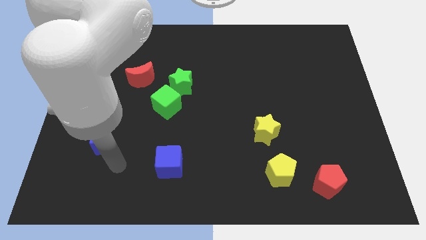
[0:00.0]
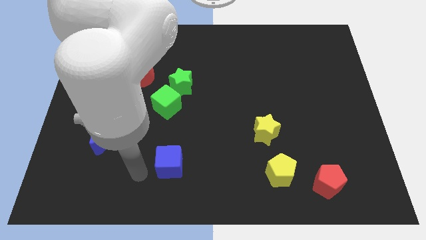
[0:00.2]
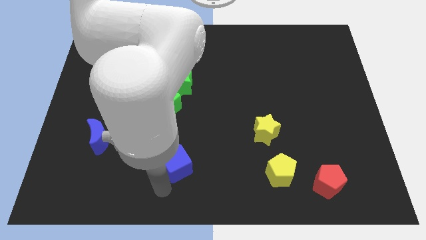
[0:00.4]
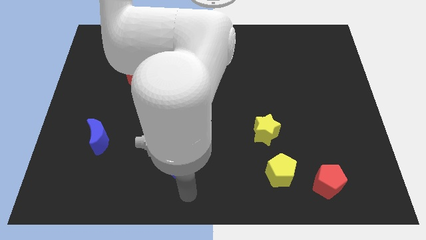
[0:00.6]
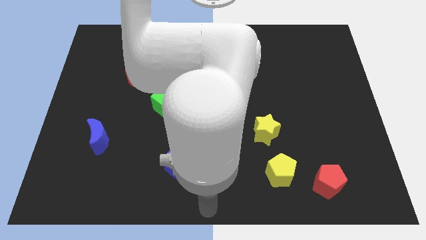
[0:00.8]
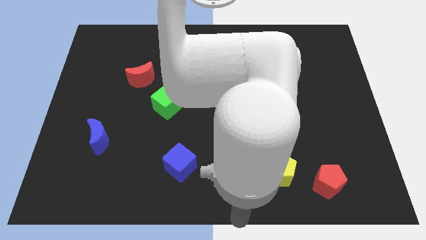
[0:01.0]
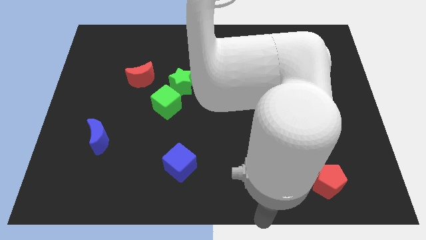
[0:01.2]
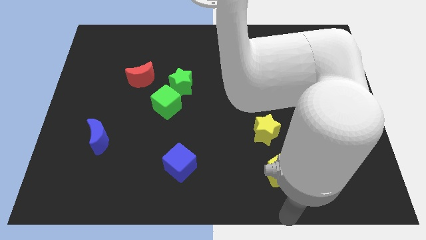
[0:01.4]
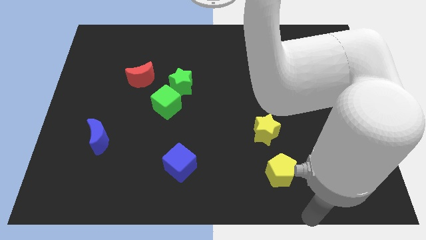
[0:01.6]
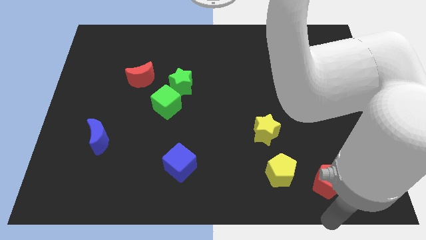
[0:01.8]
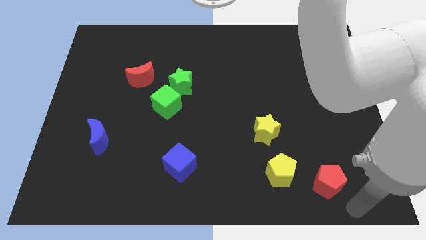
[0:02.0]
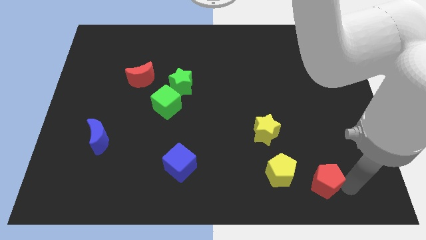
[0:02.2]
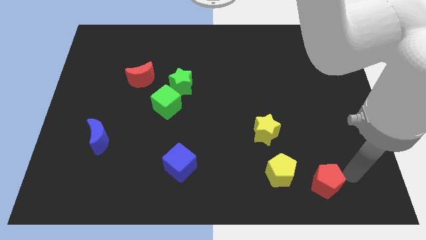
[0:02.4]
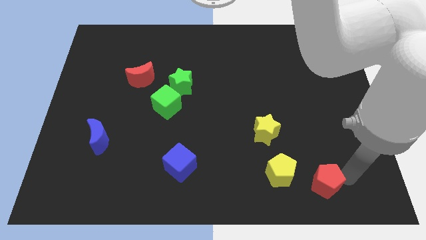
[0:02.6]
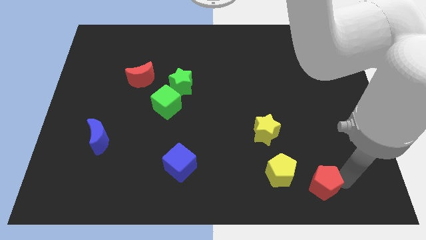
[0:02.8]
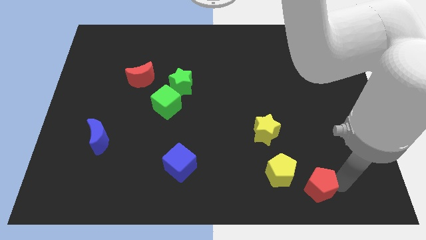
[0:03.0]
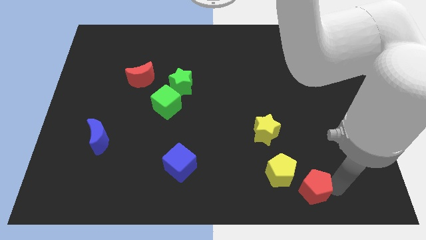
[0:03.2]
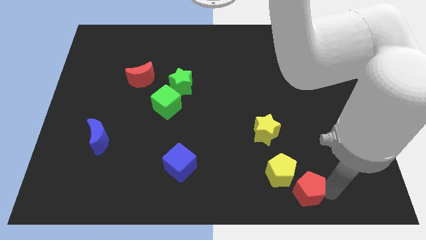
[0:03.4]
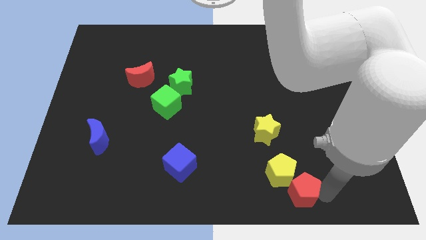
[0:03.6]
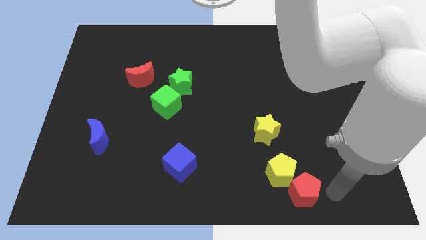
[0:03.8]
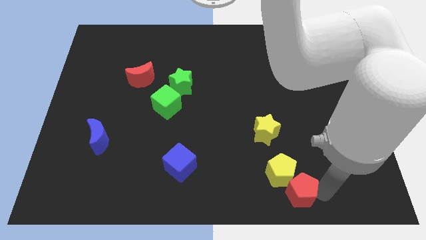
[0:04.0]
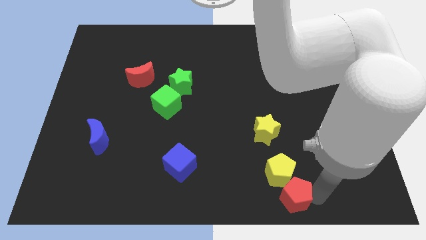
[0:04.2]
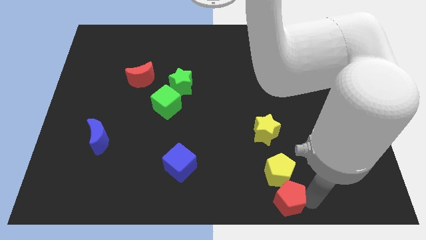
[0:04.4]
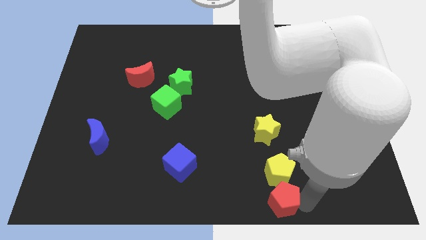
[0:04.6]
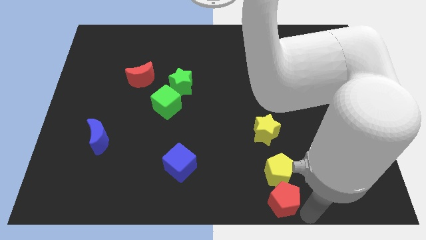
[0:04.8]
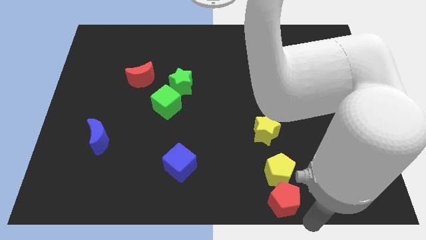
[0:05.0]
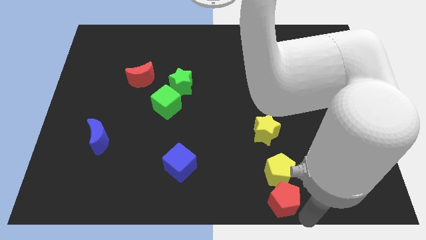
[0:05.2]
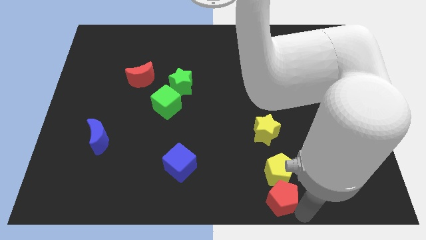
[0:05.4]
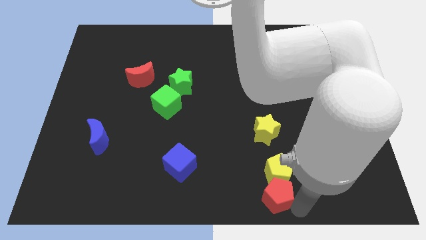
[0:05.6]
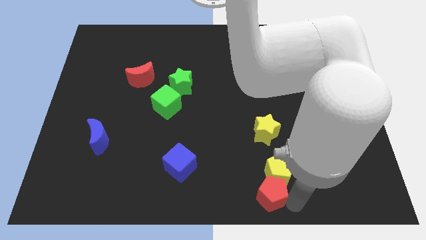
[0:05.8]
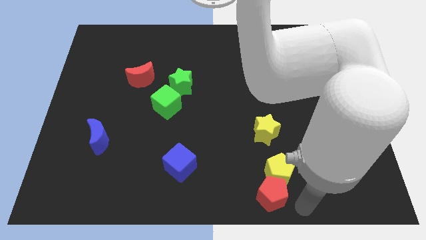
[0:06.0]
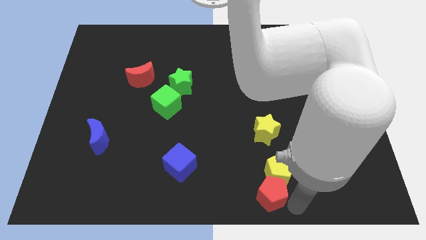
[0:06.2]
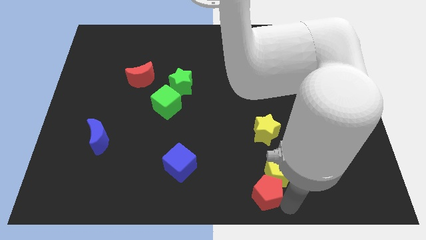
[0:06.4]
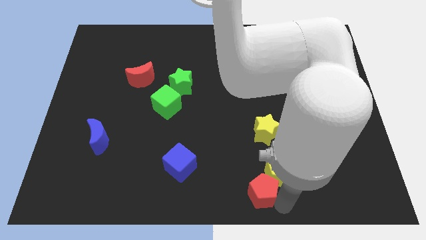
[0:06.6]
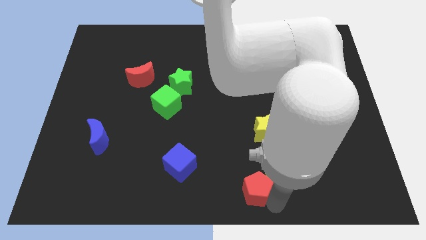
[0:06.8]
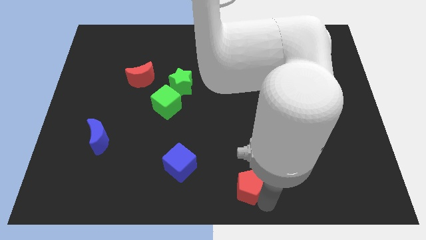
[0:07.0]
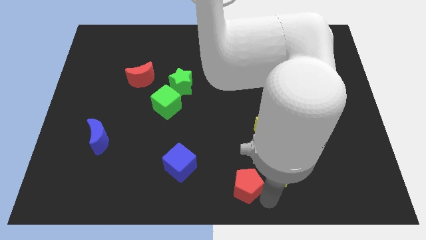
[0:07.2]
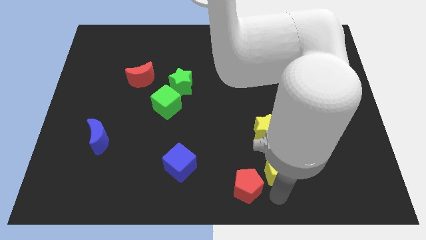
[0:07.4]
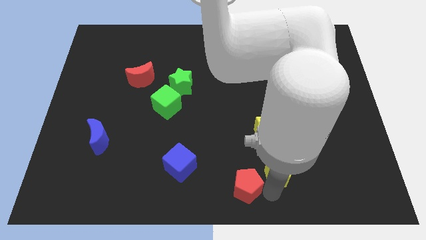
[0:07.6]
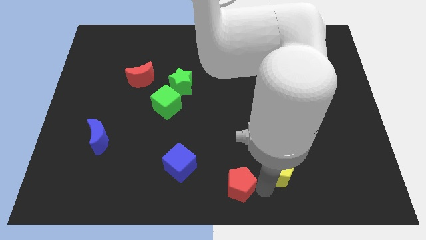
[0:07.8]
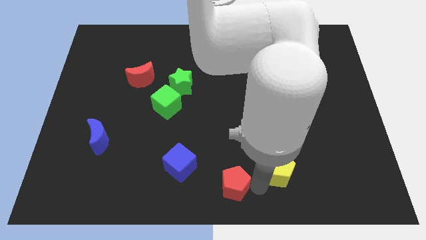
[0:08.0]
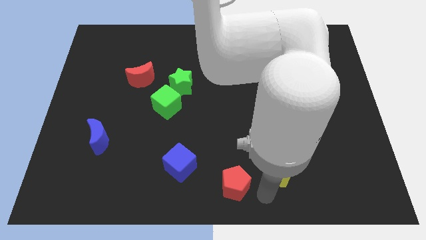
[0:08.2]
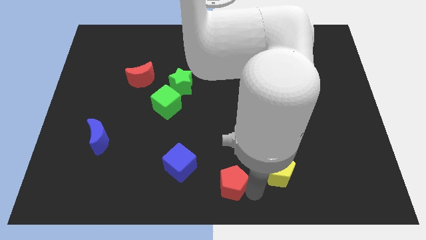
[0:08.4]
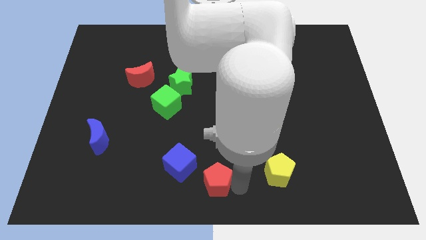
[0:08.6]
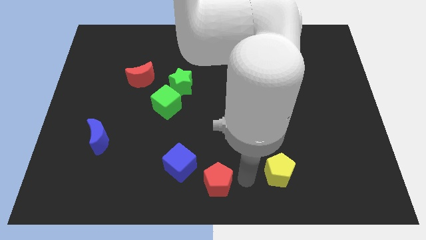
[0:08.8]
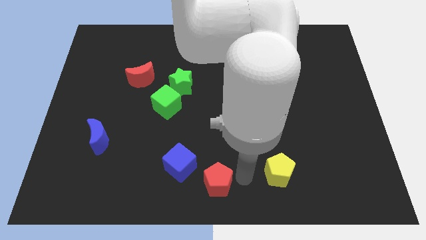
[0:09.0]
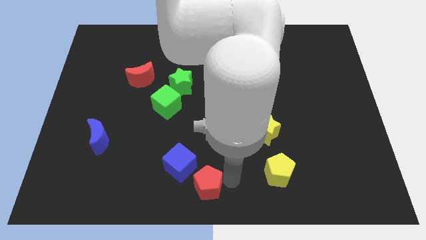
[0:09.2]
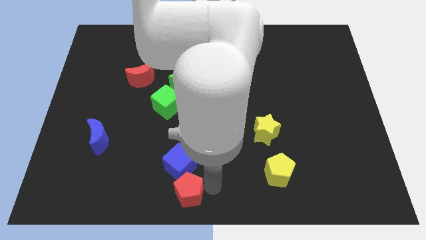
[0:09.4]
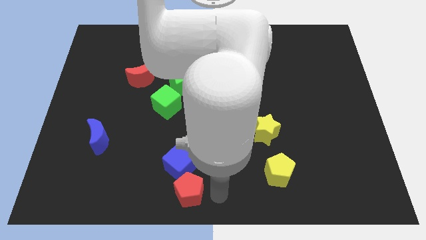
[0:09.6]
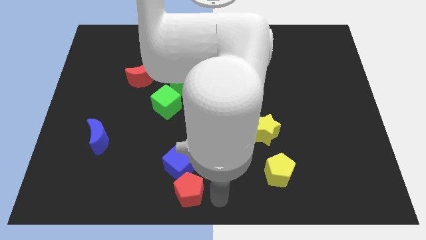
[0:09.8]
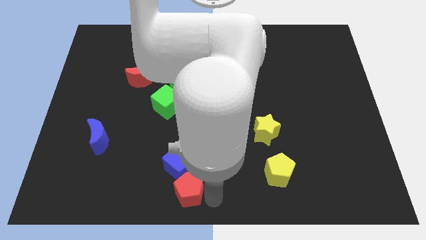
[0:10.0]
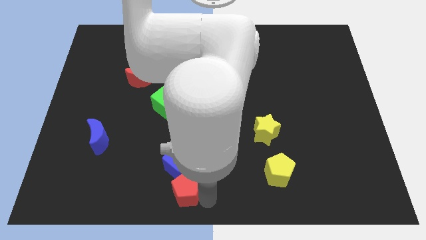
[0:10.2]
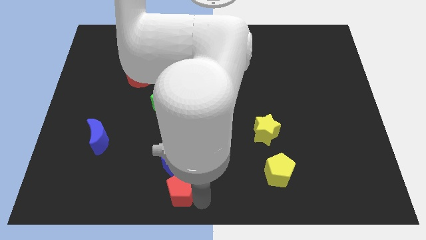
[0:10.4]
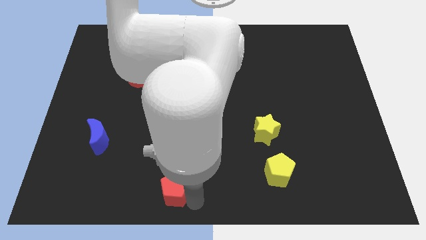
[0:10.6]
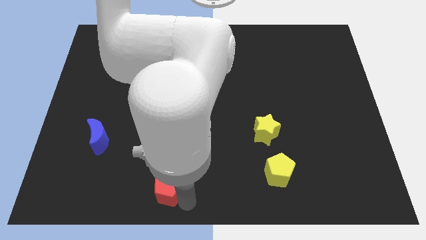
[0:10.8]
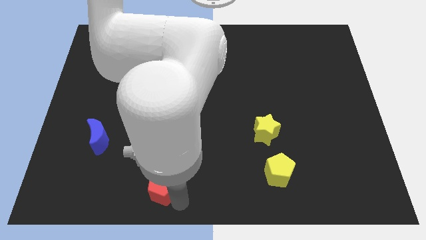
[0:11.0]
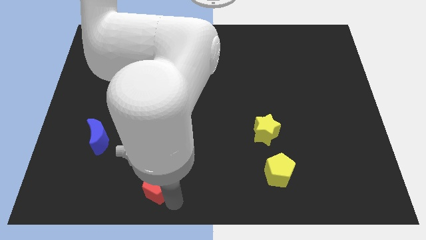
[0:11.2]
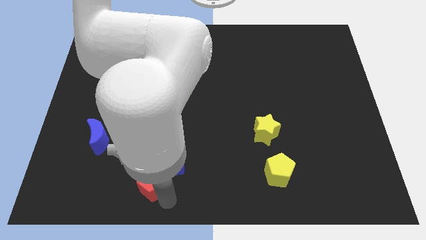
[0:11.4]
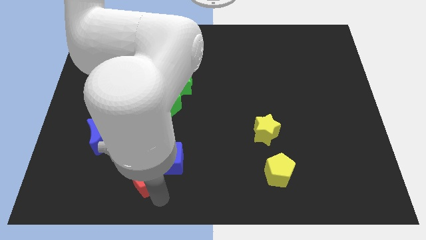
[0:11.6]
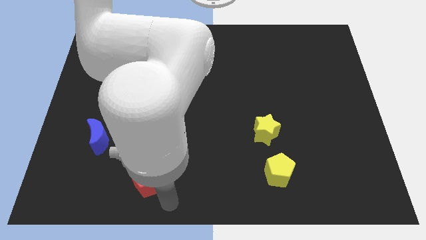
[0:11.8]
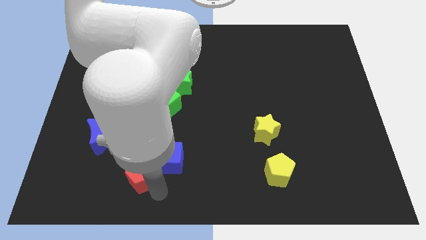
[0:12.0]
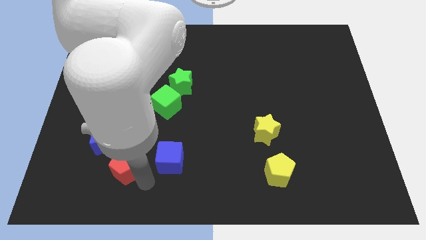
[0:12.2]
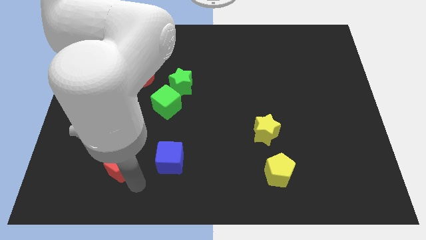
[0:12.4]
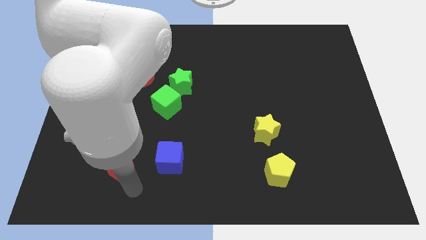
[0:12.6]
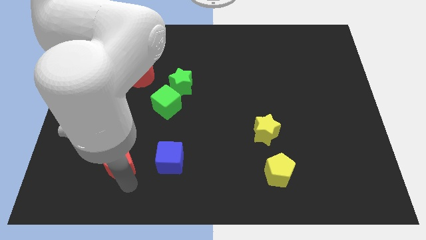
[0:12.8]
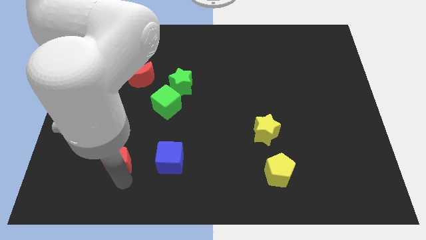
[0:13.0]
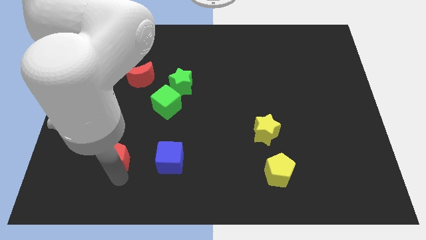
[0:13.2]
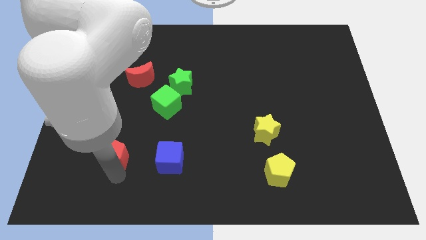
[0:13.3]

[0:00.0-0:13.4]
push the red pentagon close to the blue moon

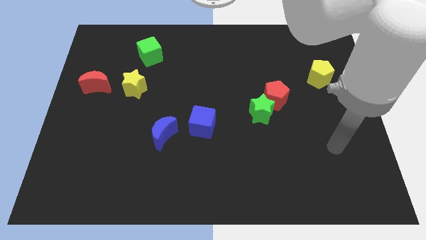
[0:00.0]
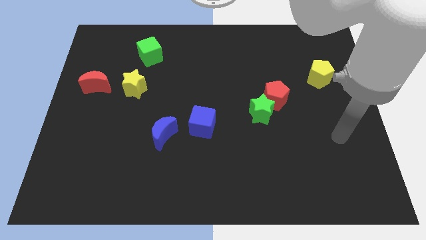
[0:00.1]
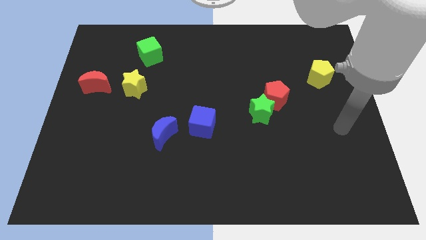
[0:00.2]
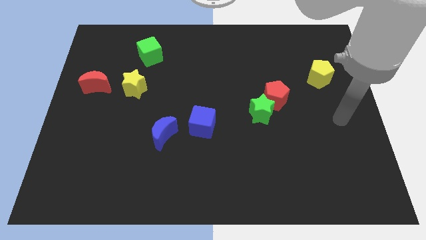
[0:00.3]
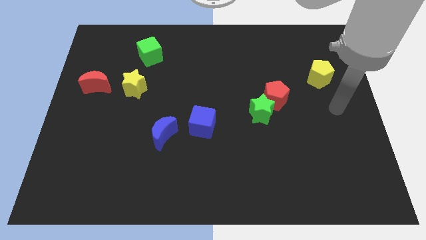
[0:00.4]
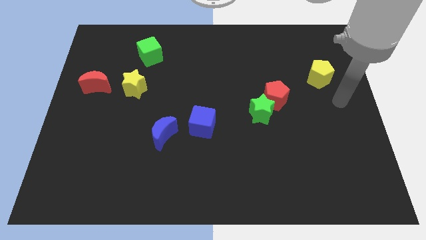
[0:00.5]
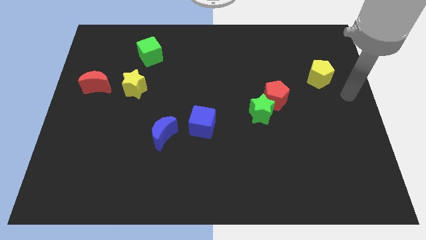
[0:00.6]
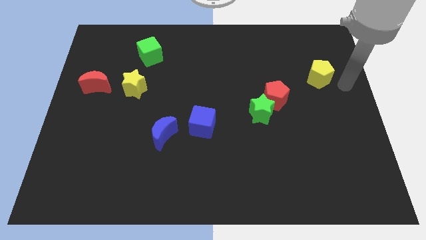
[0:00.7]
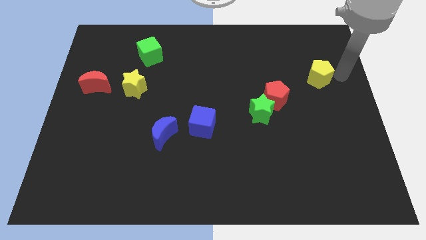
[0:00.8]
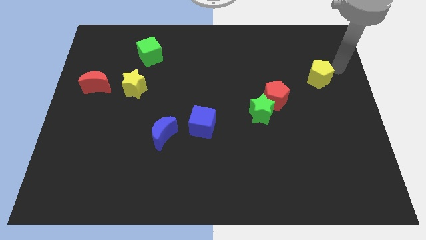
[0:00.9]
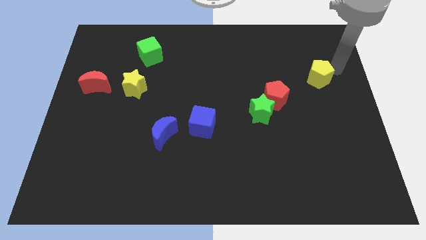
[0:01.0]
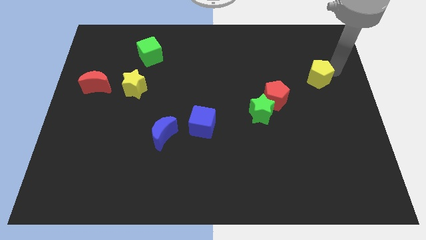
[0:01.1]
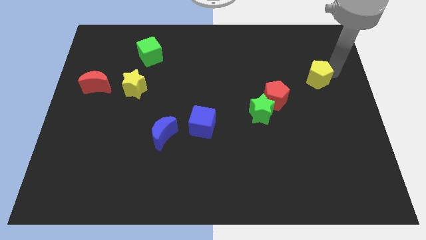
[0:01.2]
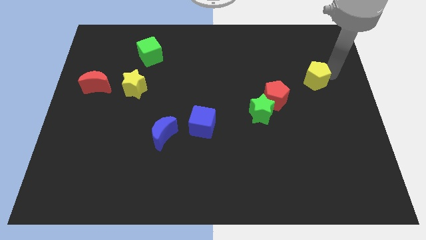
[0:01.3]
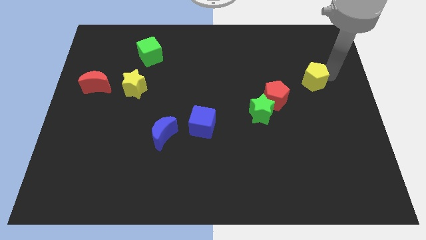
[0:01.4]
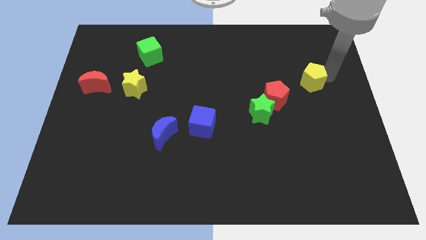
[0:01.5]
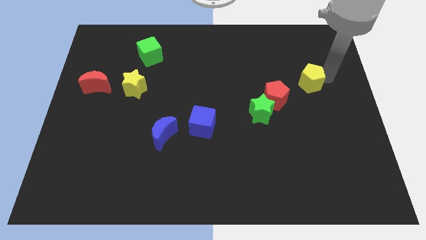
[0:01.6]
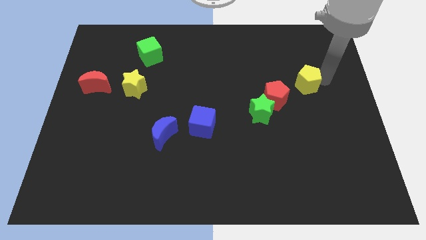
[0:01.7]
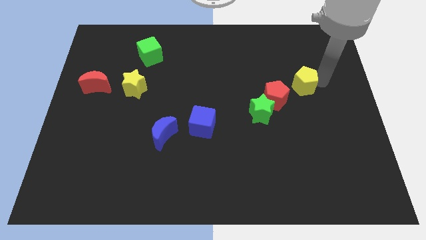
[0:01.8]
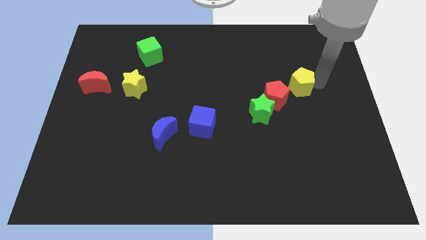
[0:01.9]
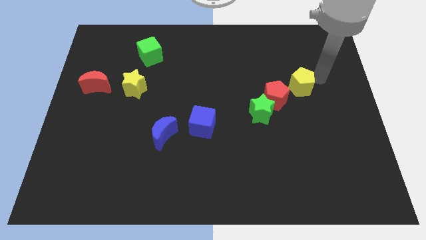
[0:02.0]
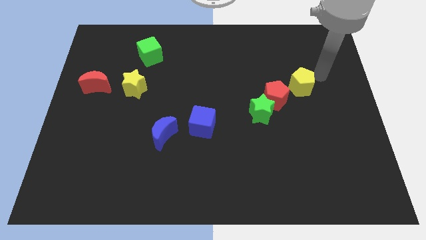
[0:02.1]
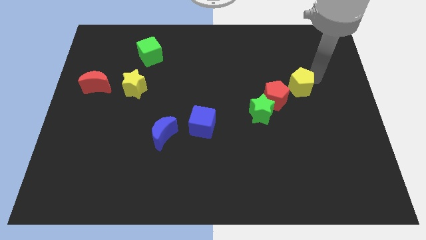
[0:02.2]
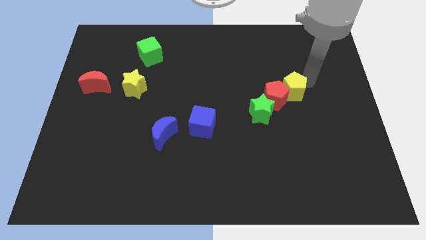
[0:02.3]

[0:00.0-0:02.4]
slide the yellow pentagon close to the red pentagon
